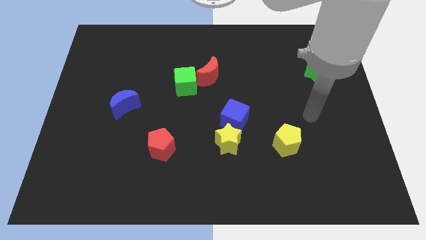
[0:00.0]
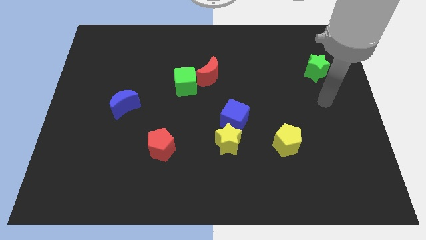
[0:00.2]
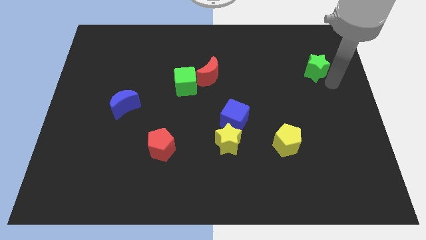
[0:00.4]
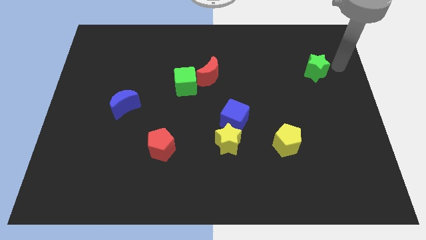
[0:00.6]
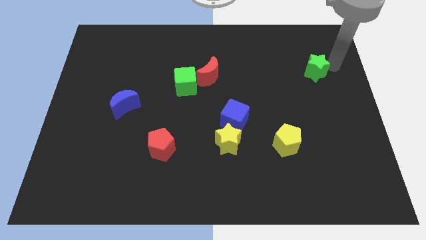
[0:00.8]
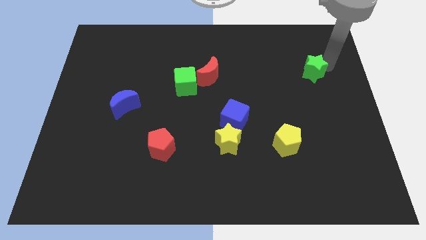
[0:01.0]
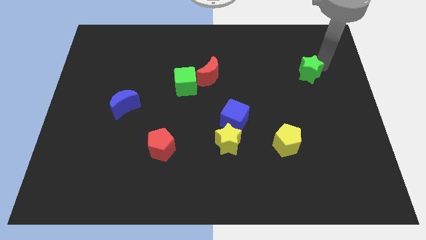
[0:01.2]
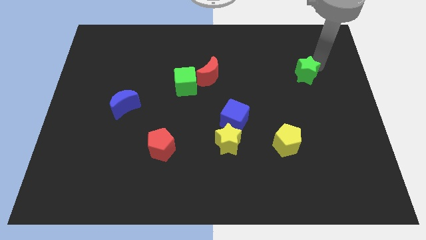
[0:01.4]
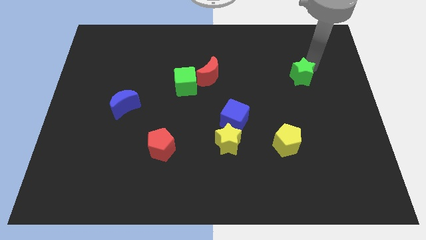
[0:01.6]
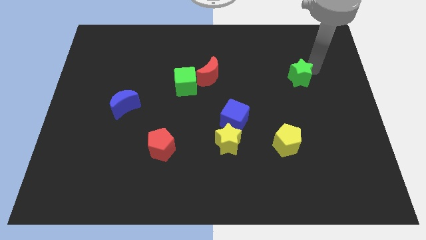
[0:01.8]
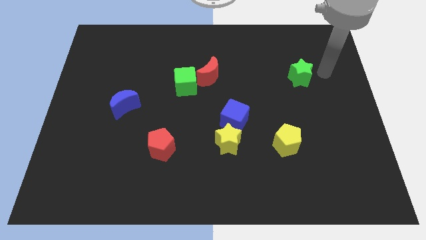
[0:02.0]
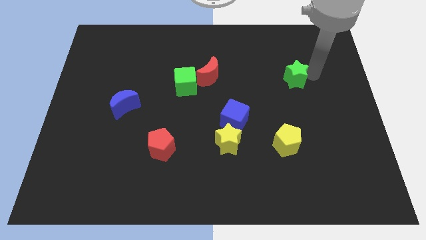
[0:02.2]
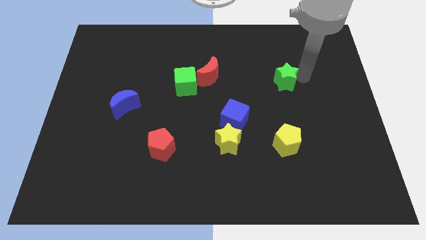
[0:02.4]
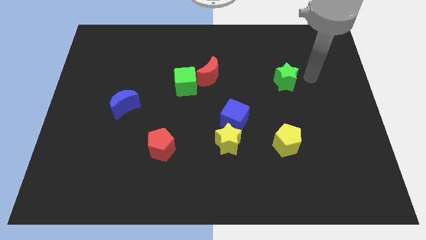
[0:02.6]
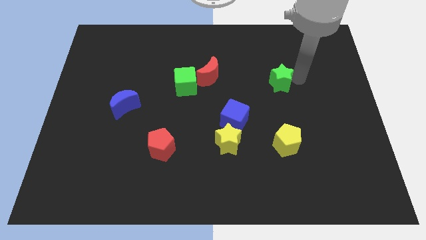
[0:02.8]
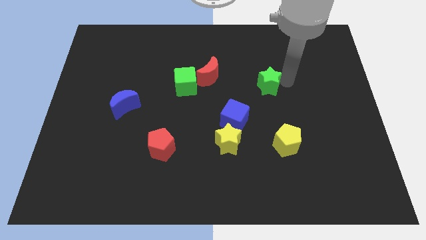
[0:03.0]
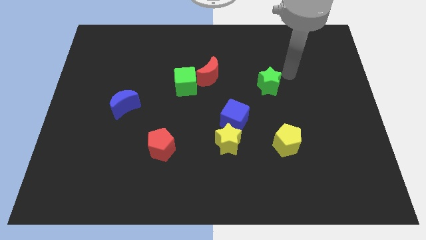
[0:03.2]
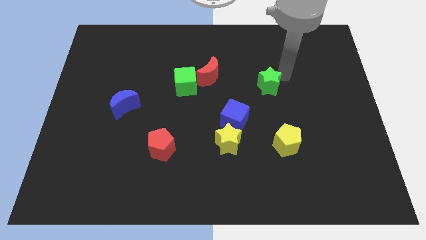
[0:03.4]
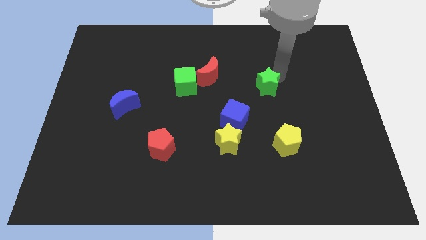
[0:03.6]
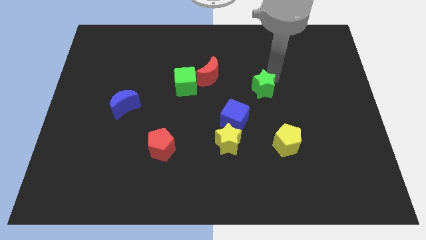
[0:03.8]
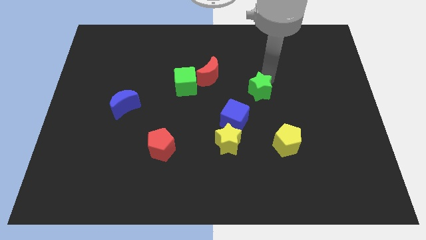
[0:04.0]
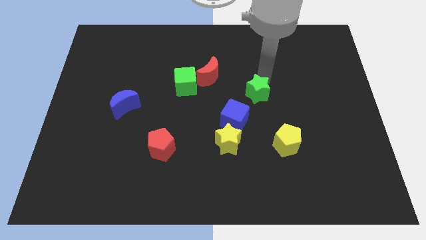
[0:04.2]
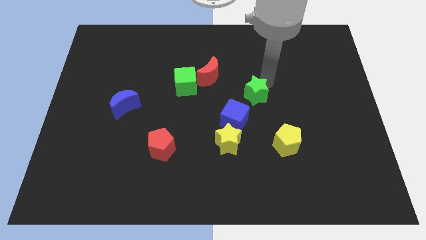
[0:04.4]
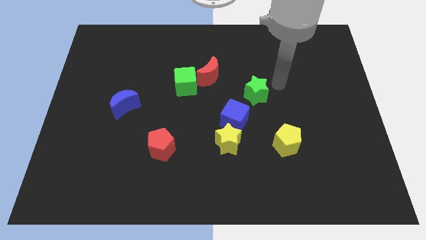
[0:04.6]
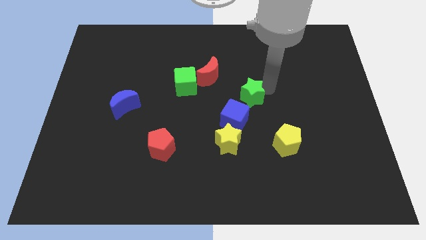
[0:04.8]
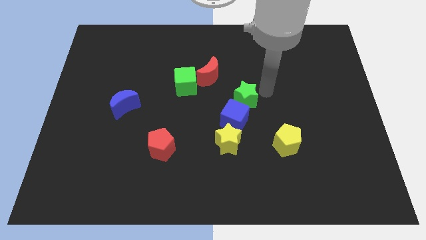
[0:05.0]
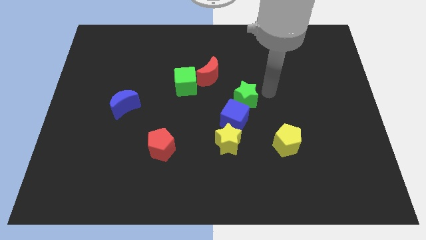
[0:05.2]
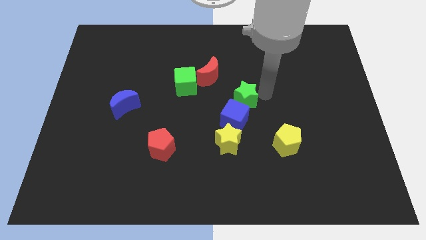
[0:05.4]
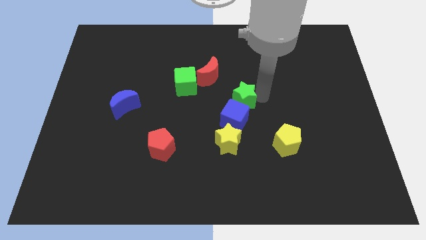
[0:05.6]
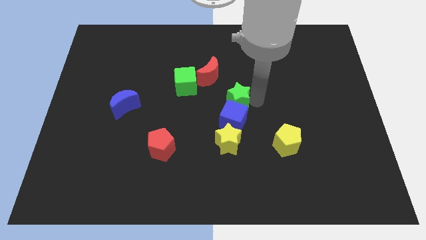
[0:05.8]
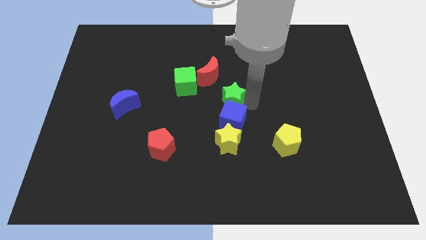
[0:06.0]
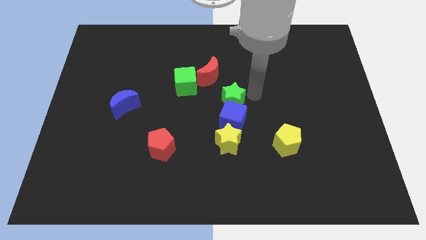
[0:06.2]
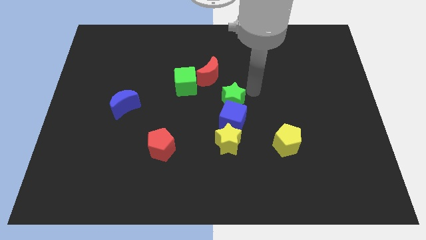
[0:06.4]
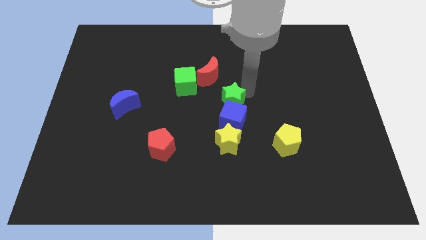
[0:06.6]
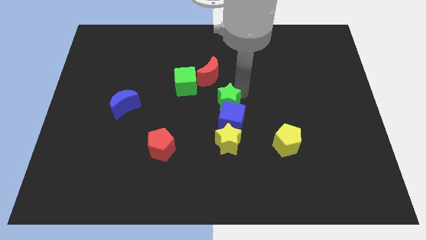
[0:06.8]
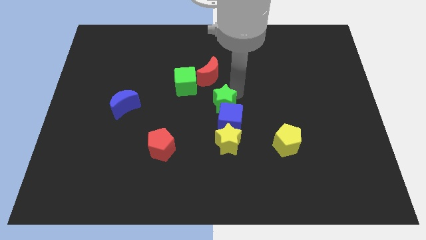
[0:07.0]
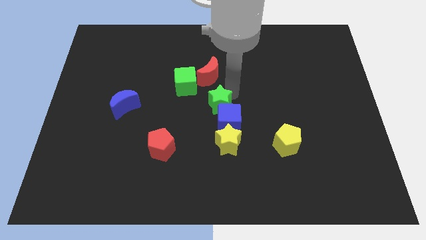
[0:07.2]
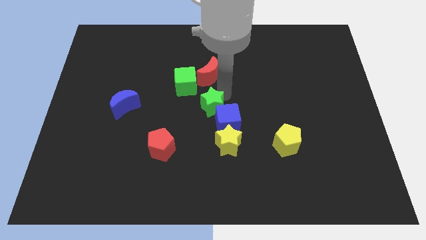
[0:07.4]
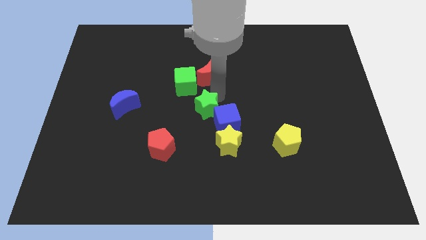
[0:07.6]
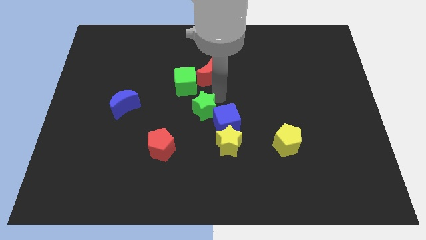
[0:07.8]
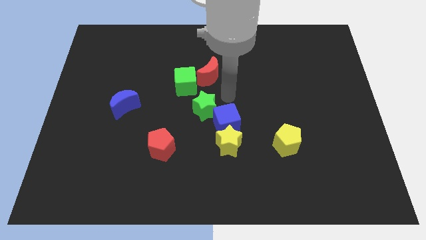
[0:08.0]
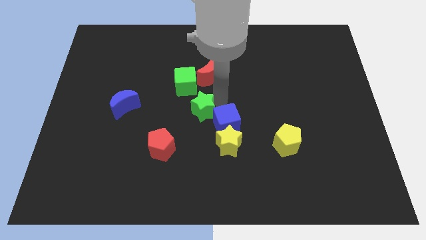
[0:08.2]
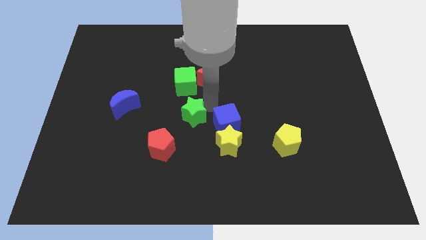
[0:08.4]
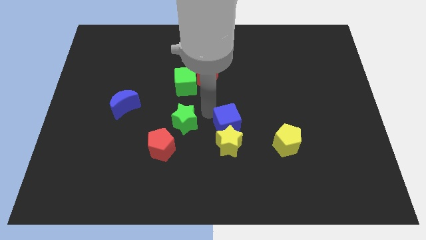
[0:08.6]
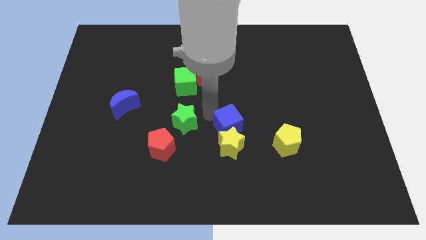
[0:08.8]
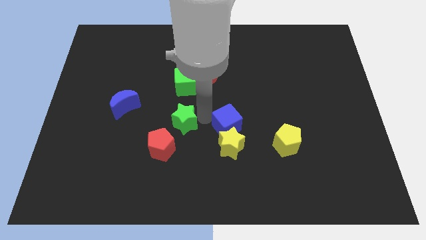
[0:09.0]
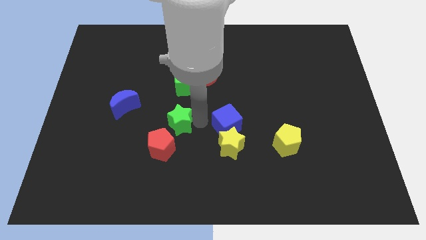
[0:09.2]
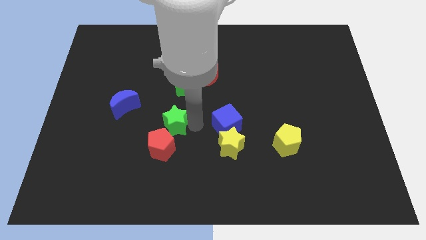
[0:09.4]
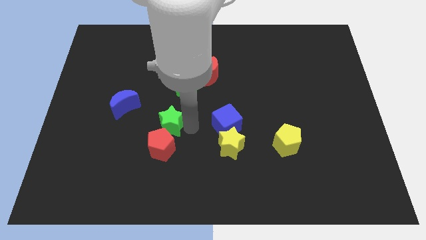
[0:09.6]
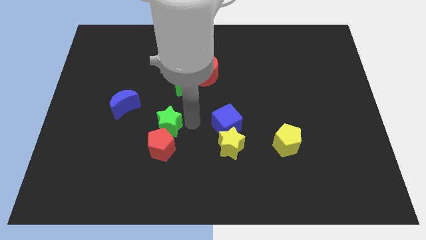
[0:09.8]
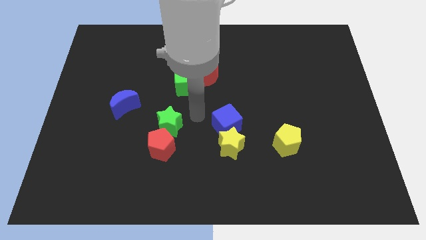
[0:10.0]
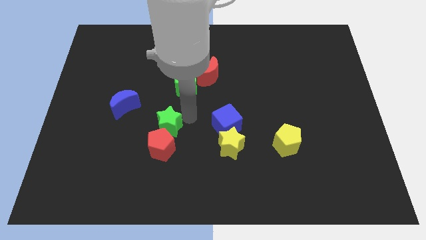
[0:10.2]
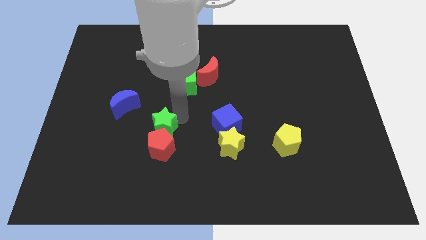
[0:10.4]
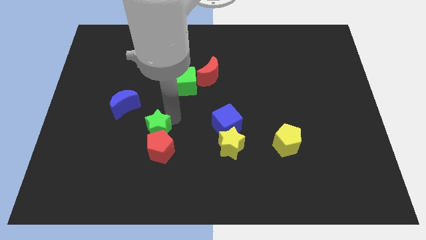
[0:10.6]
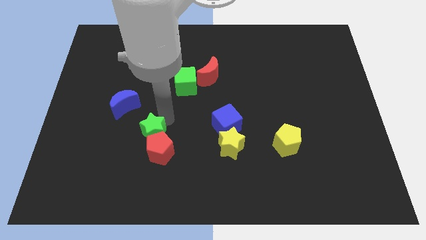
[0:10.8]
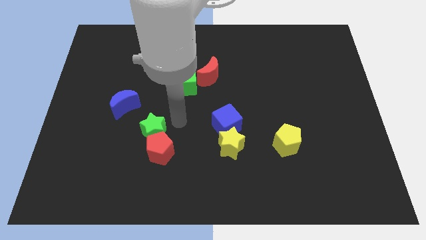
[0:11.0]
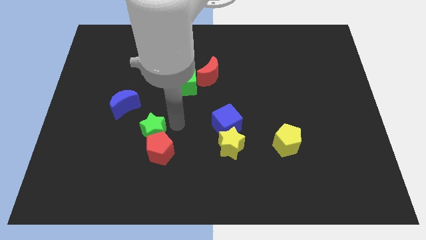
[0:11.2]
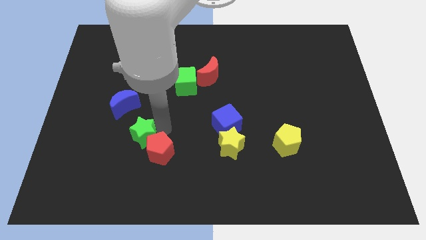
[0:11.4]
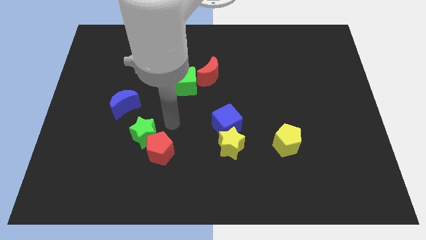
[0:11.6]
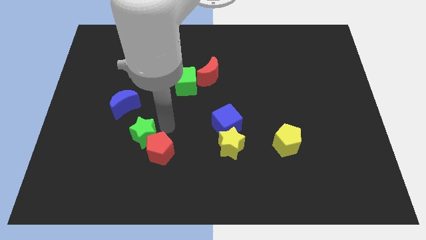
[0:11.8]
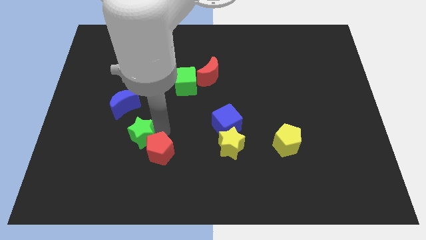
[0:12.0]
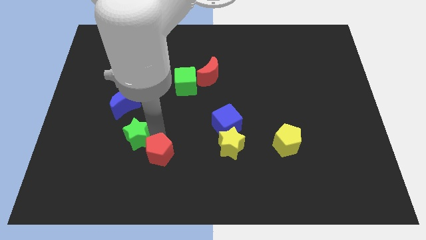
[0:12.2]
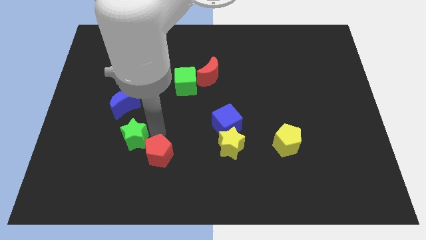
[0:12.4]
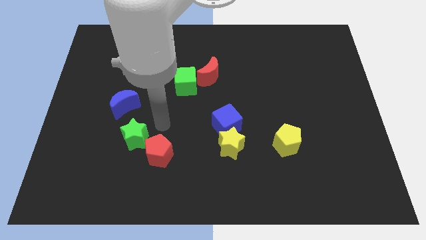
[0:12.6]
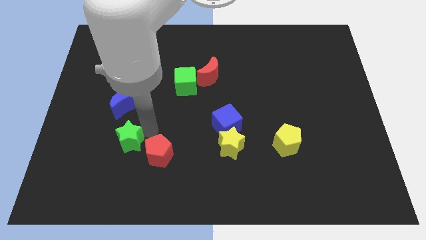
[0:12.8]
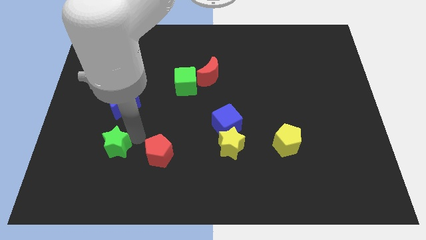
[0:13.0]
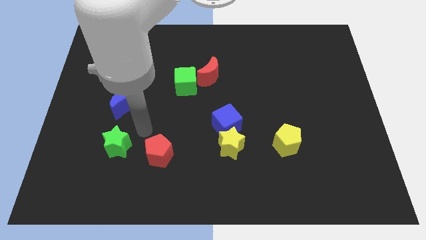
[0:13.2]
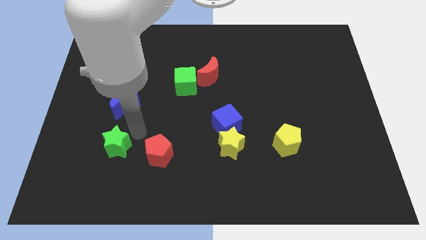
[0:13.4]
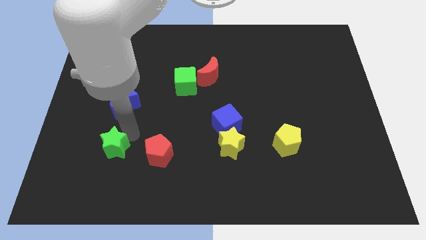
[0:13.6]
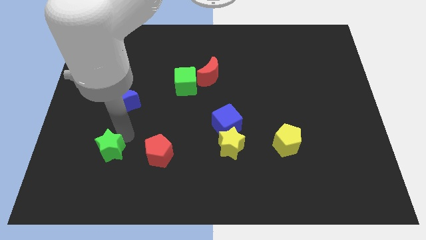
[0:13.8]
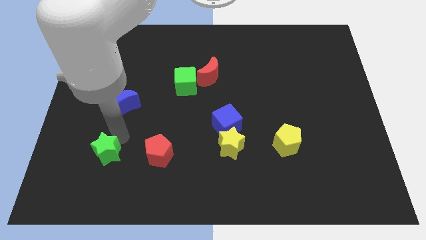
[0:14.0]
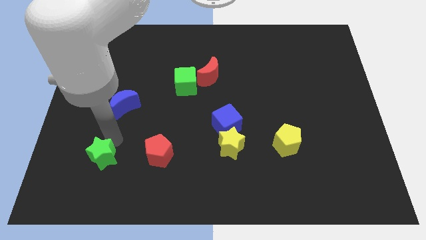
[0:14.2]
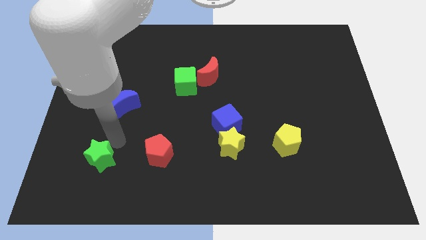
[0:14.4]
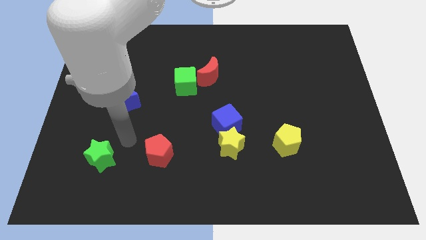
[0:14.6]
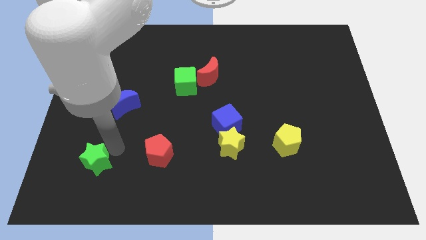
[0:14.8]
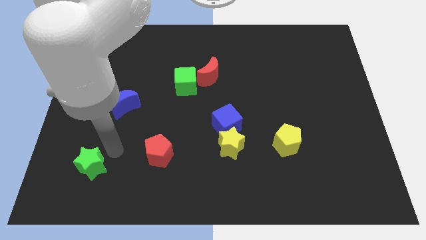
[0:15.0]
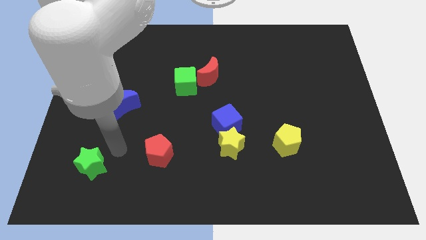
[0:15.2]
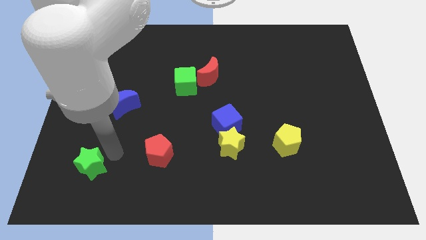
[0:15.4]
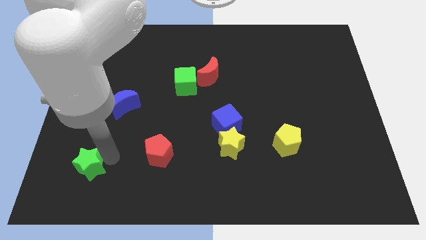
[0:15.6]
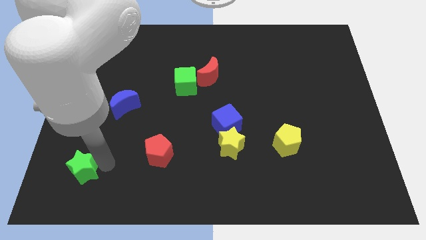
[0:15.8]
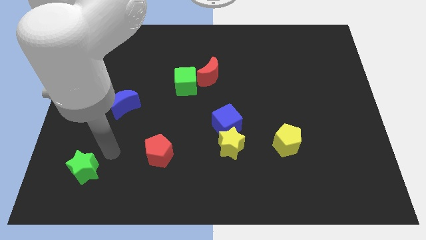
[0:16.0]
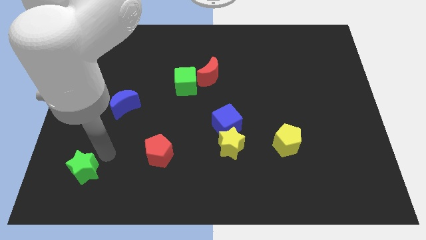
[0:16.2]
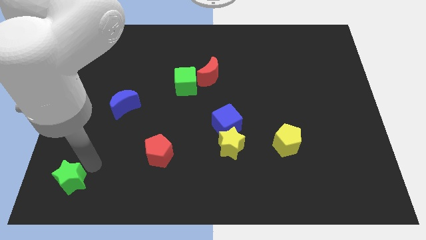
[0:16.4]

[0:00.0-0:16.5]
move the green star to the lower left corner
